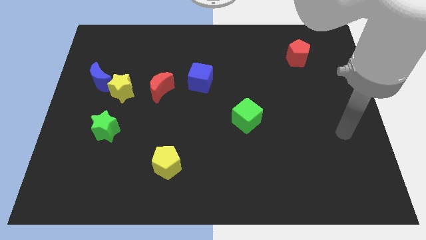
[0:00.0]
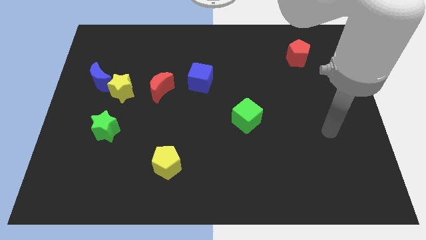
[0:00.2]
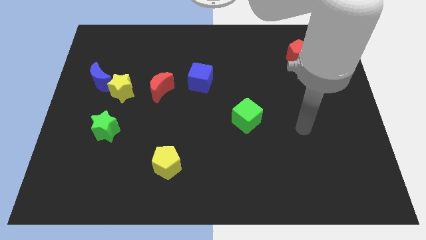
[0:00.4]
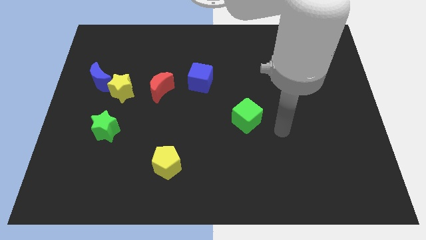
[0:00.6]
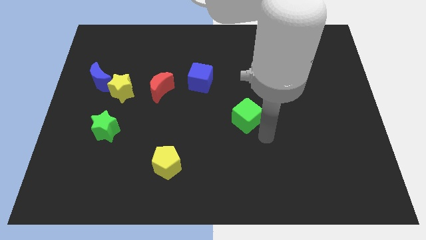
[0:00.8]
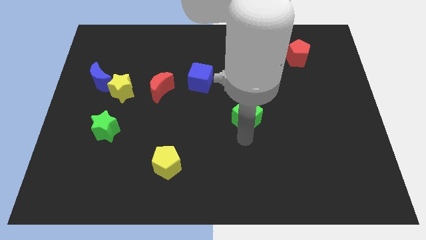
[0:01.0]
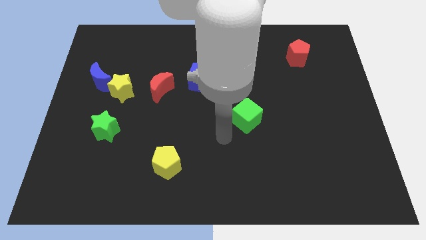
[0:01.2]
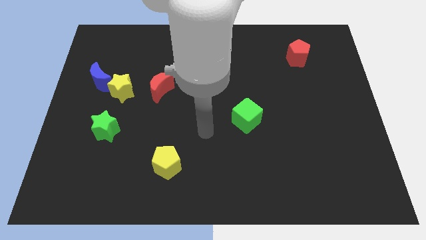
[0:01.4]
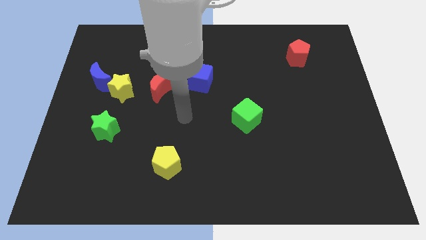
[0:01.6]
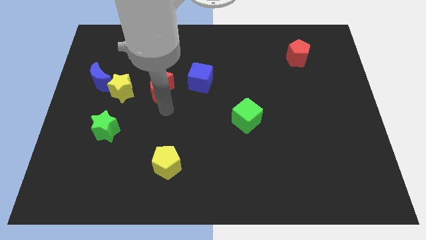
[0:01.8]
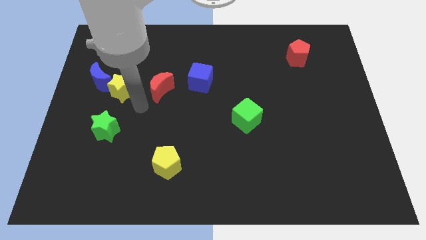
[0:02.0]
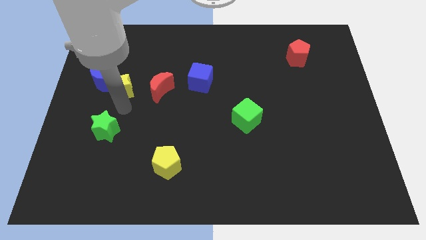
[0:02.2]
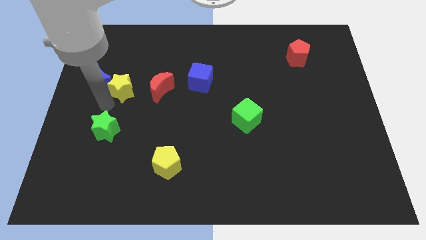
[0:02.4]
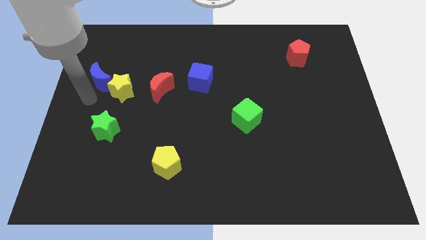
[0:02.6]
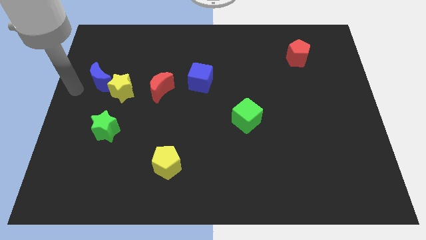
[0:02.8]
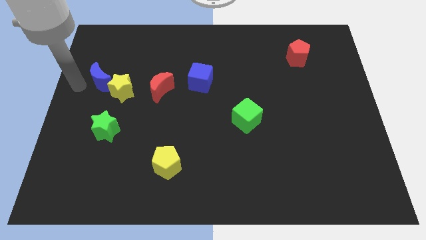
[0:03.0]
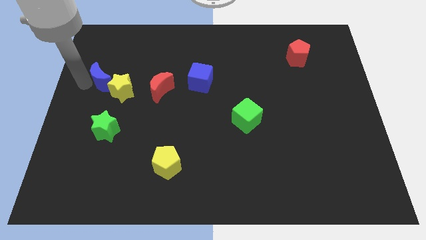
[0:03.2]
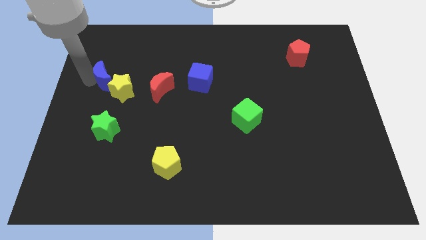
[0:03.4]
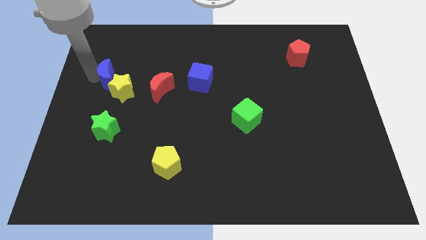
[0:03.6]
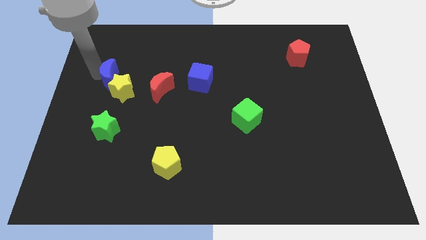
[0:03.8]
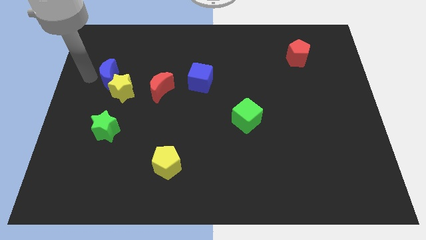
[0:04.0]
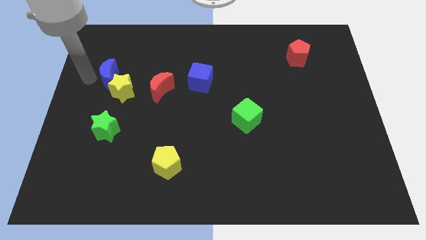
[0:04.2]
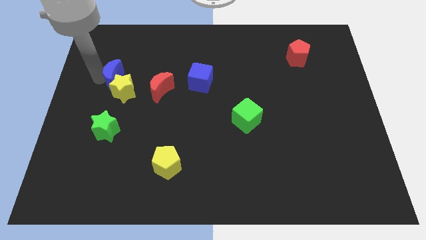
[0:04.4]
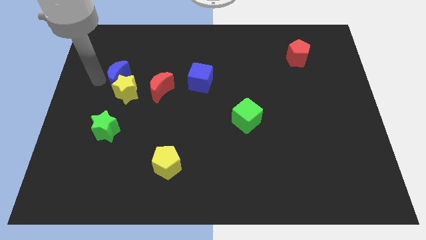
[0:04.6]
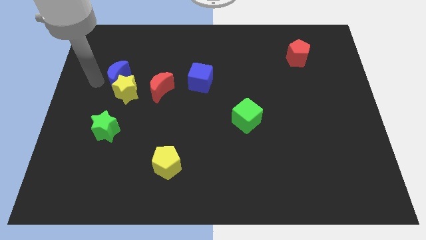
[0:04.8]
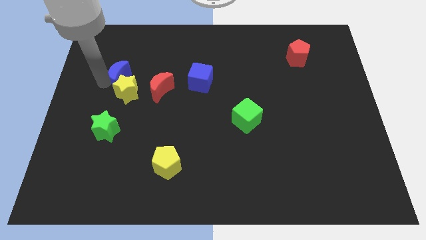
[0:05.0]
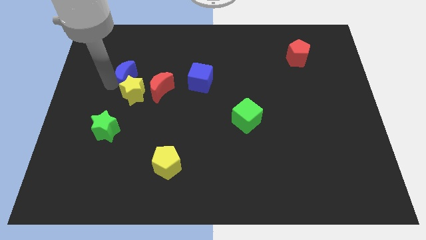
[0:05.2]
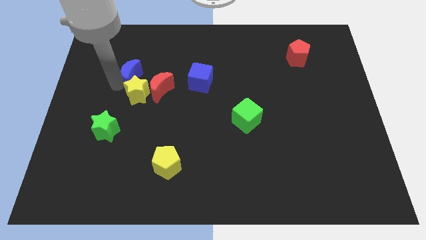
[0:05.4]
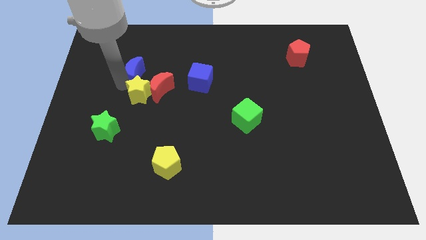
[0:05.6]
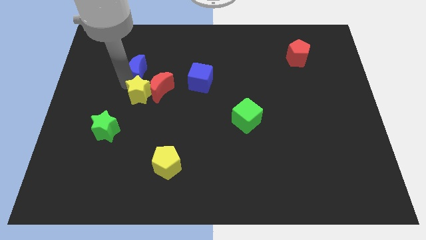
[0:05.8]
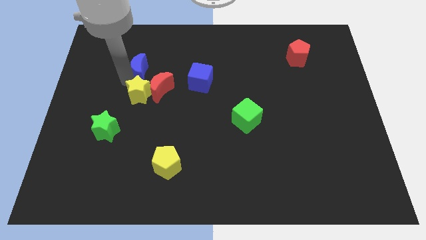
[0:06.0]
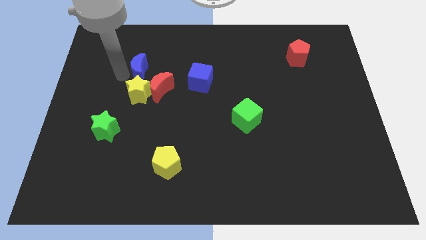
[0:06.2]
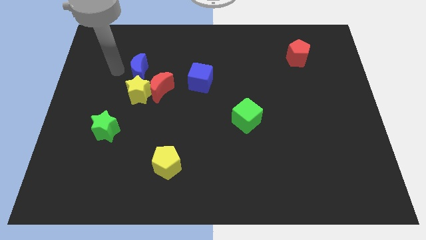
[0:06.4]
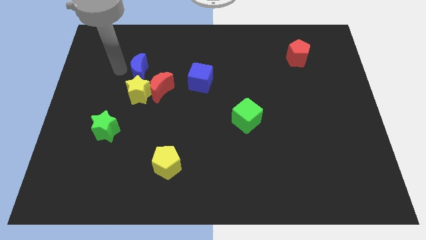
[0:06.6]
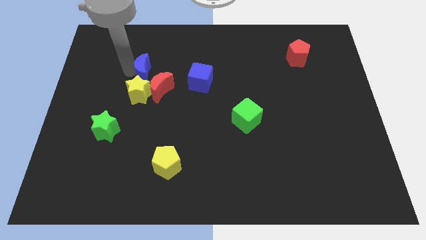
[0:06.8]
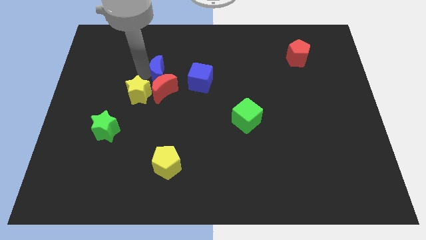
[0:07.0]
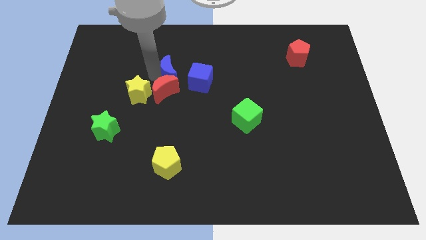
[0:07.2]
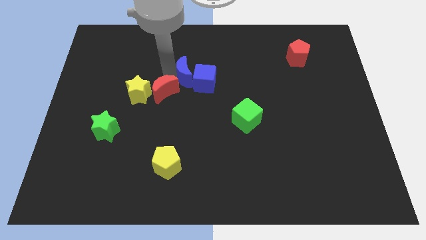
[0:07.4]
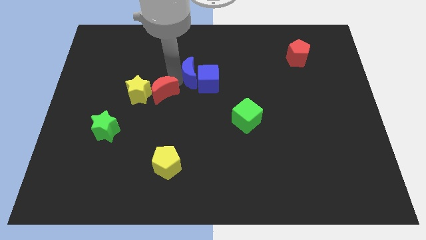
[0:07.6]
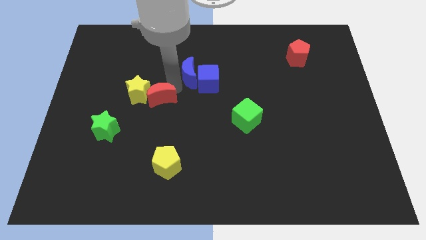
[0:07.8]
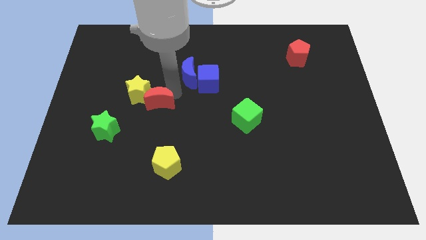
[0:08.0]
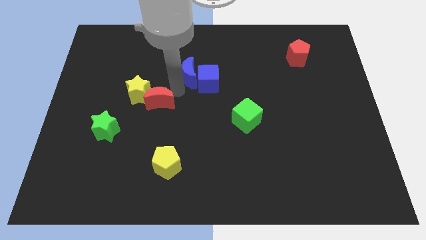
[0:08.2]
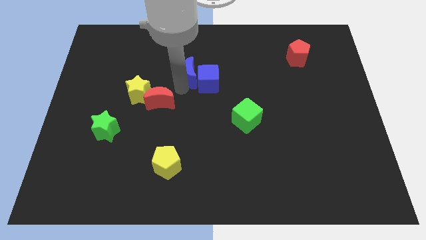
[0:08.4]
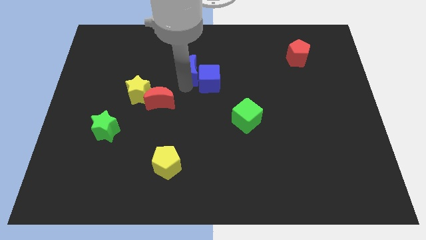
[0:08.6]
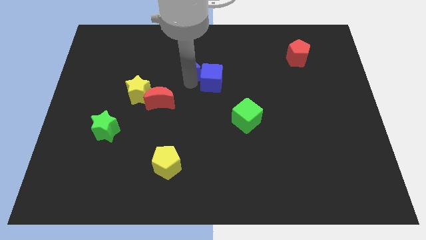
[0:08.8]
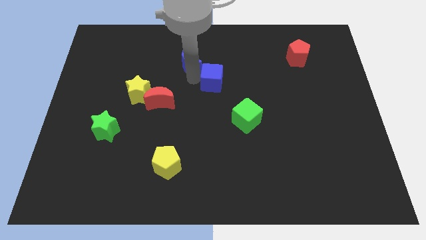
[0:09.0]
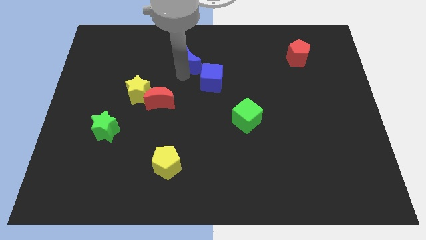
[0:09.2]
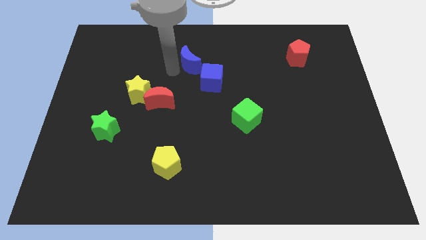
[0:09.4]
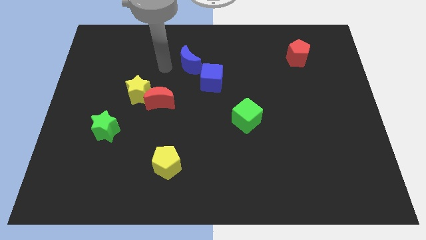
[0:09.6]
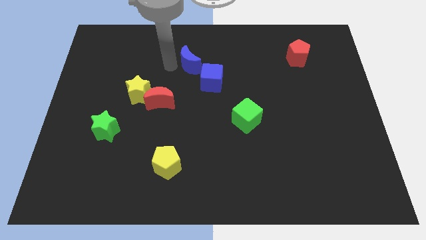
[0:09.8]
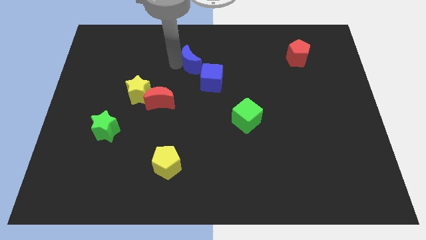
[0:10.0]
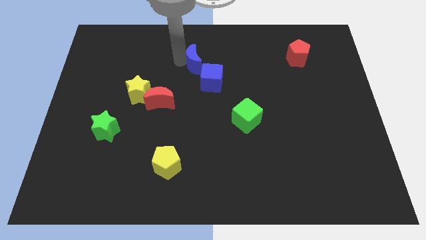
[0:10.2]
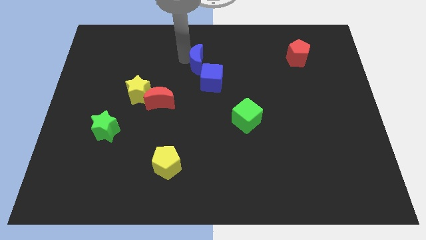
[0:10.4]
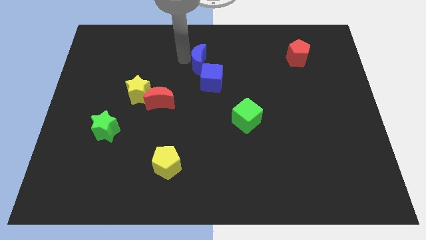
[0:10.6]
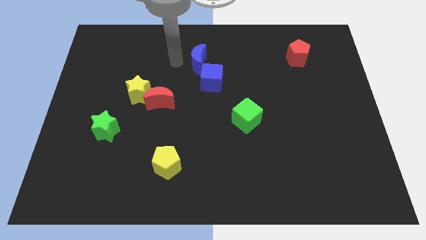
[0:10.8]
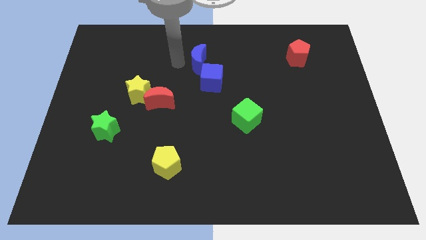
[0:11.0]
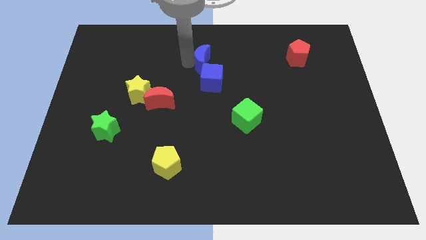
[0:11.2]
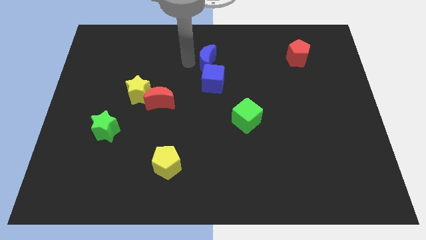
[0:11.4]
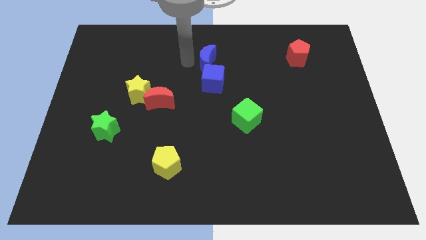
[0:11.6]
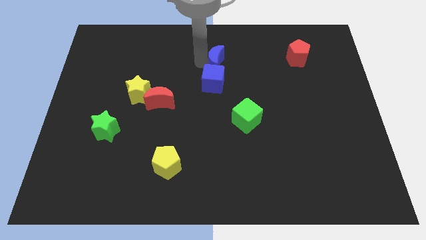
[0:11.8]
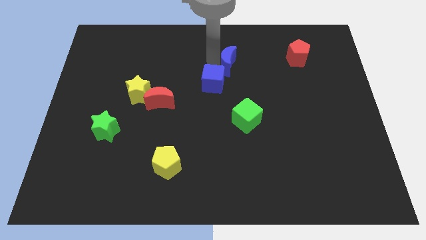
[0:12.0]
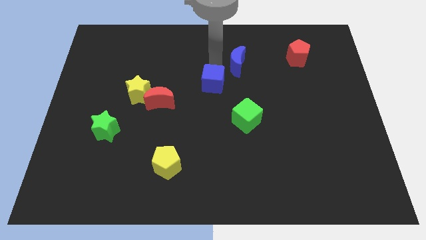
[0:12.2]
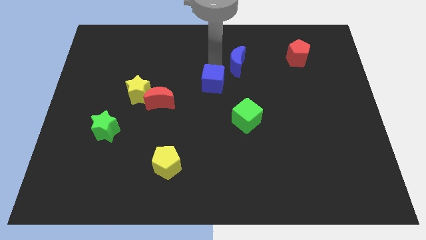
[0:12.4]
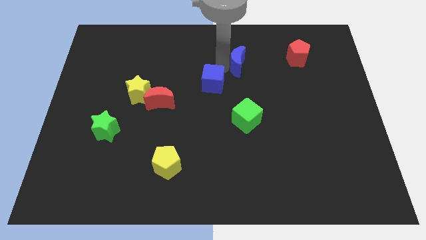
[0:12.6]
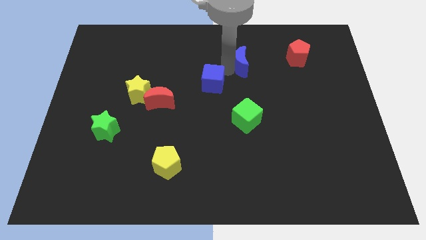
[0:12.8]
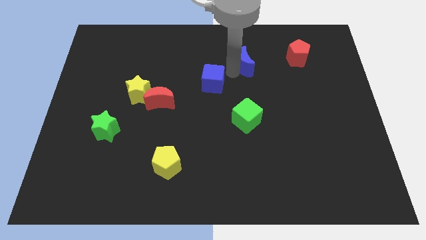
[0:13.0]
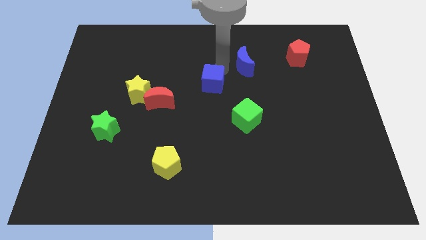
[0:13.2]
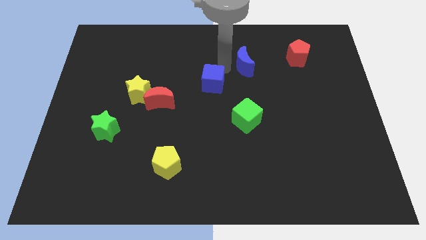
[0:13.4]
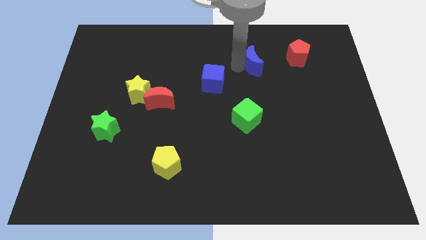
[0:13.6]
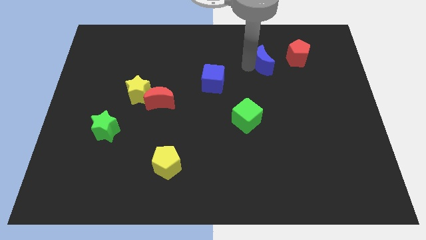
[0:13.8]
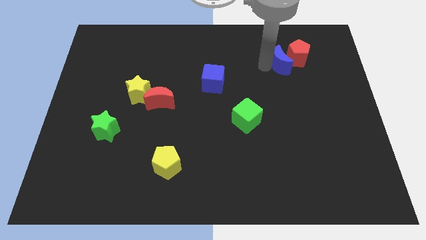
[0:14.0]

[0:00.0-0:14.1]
move the blue moon towards the red pentagon

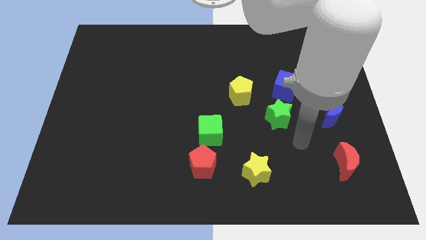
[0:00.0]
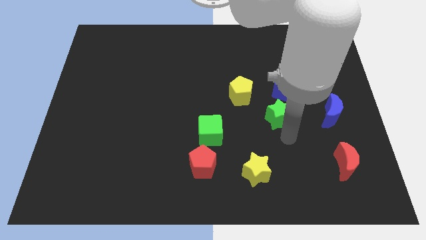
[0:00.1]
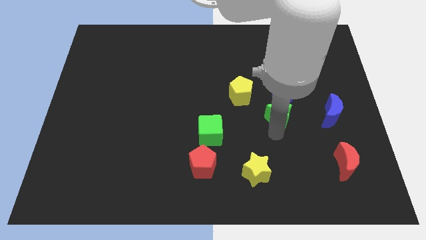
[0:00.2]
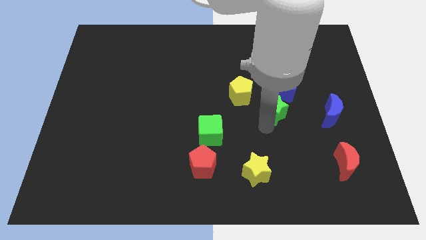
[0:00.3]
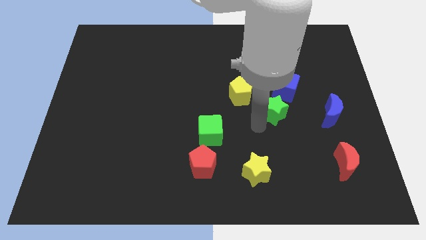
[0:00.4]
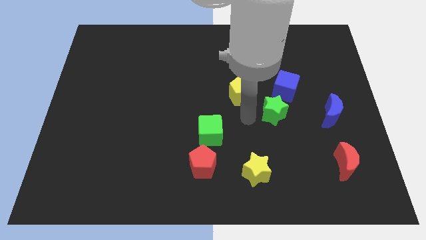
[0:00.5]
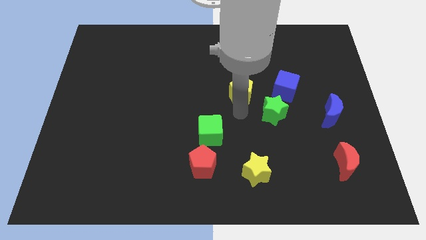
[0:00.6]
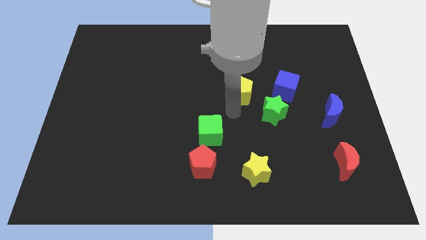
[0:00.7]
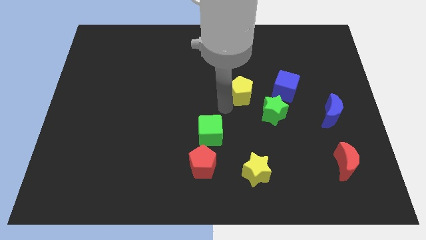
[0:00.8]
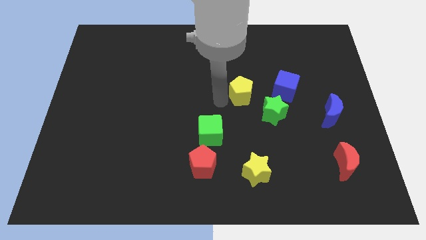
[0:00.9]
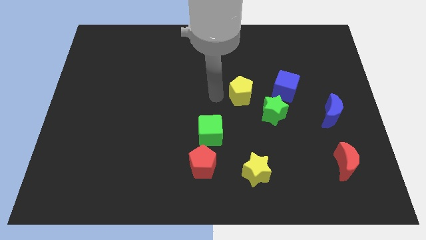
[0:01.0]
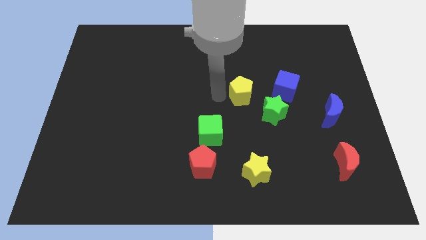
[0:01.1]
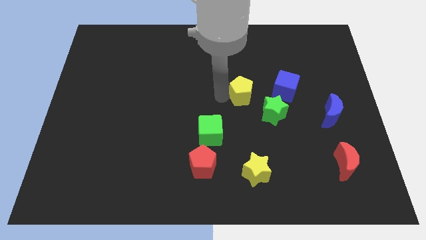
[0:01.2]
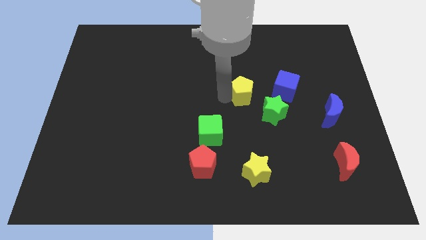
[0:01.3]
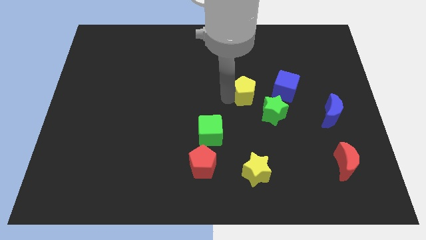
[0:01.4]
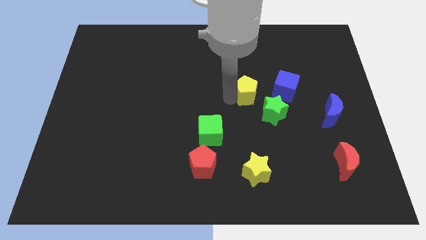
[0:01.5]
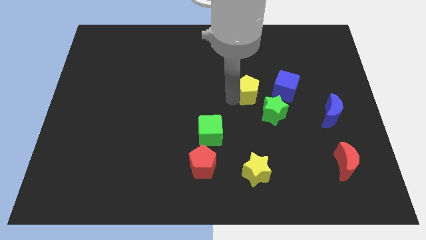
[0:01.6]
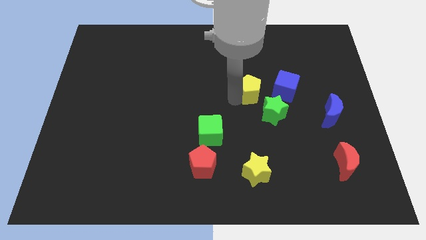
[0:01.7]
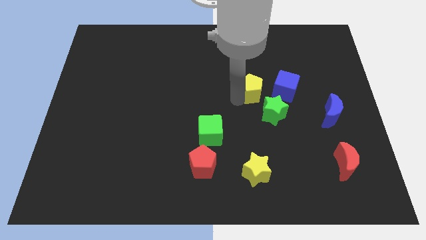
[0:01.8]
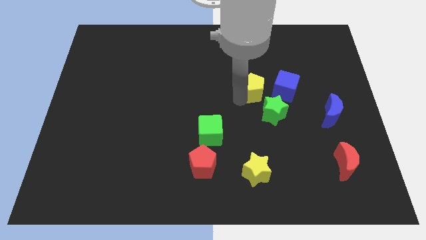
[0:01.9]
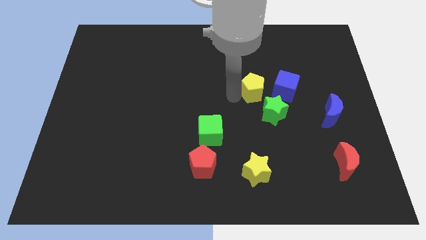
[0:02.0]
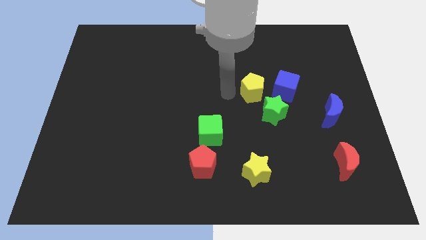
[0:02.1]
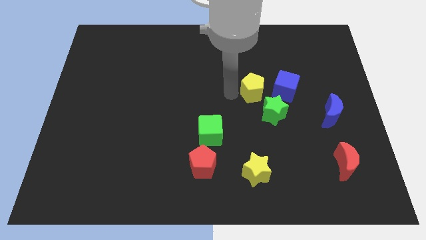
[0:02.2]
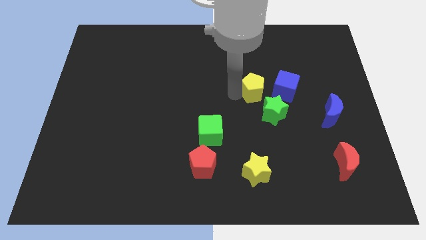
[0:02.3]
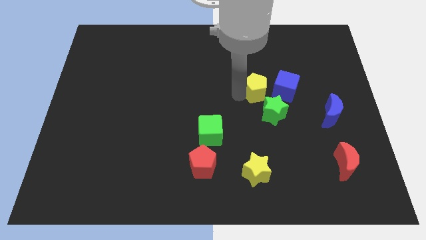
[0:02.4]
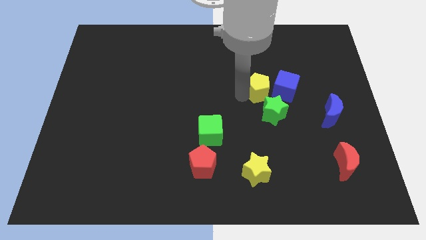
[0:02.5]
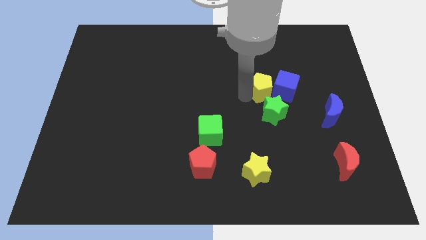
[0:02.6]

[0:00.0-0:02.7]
move the yellow pentagon close to the blue cube
